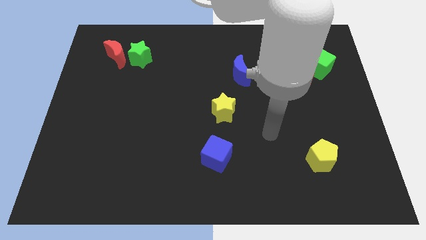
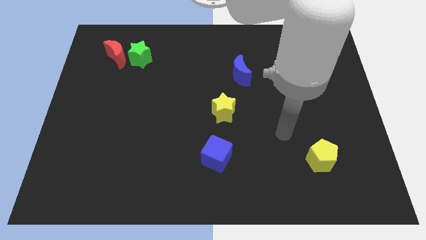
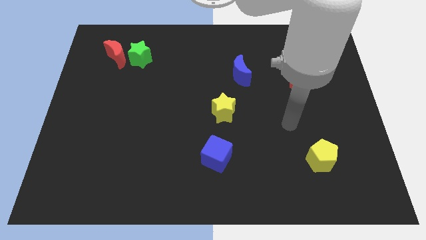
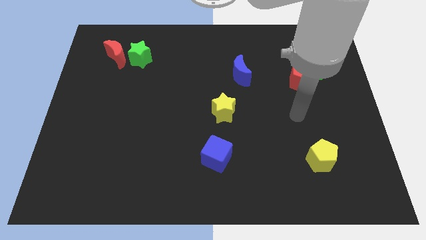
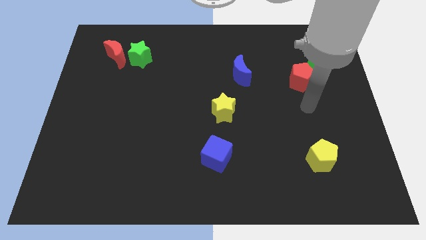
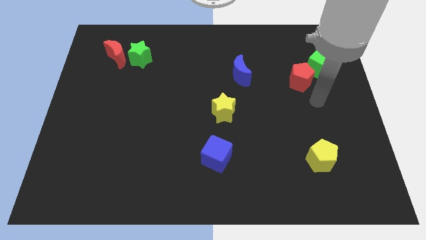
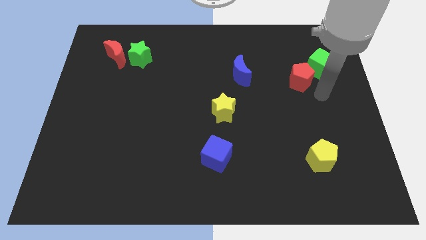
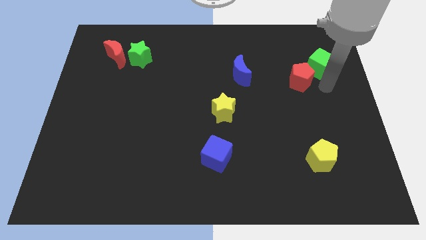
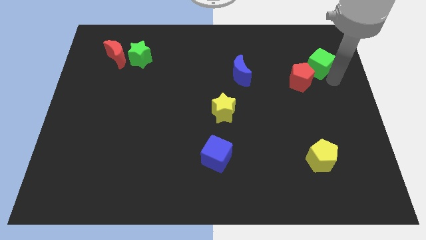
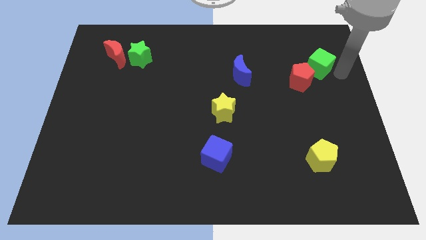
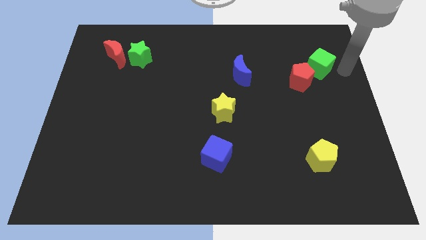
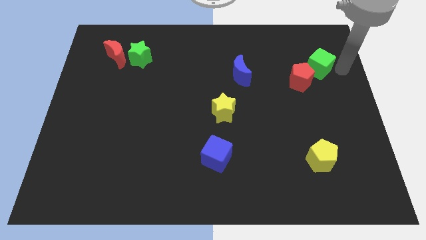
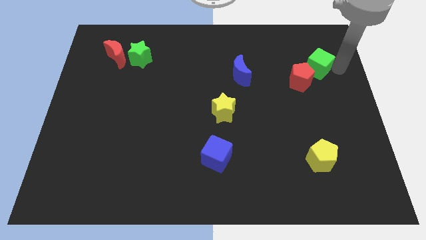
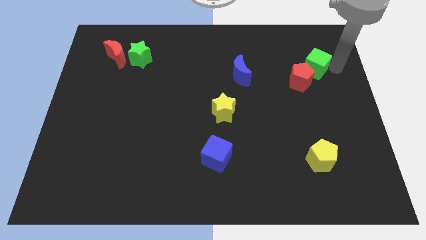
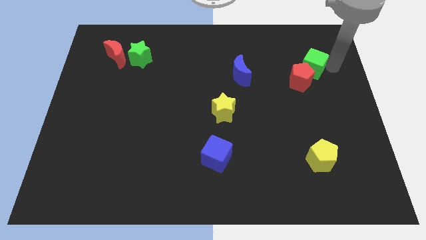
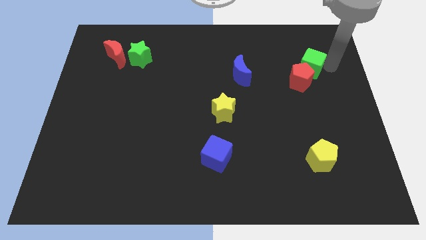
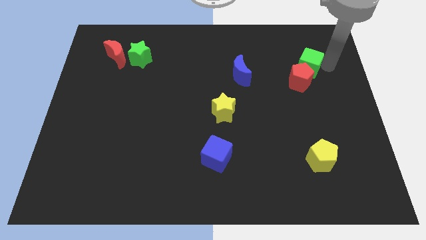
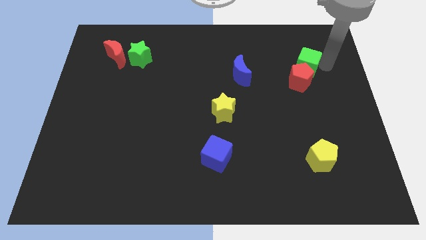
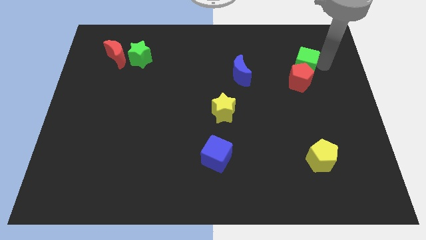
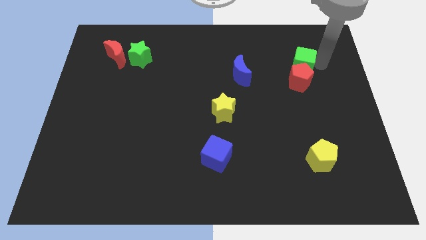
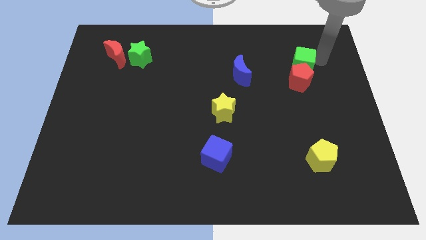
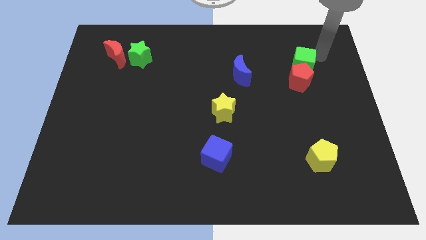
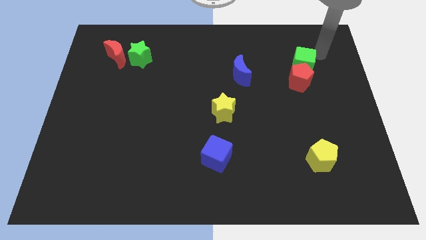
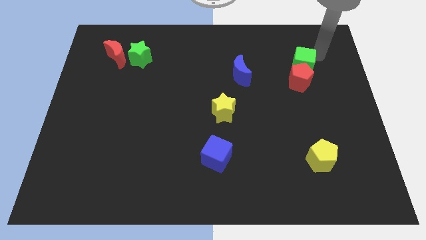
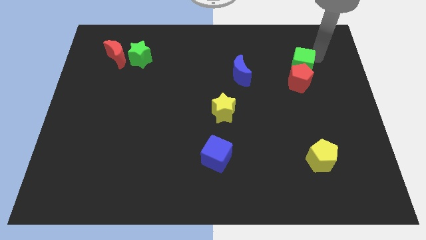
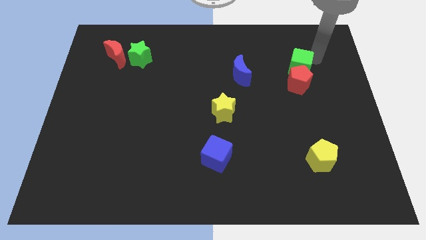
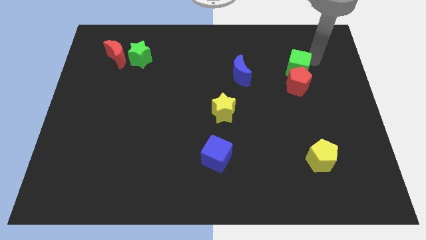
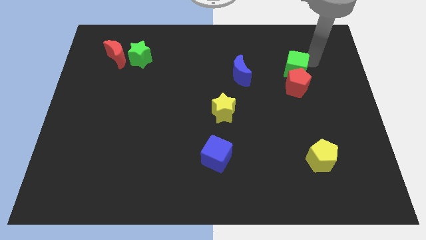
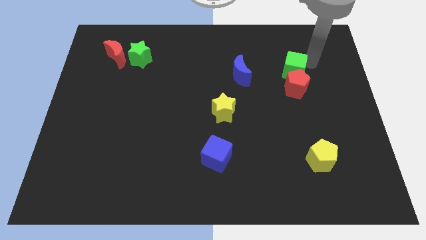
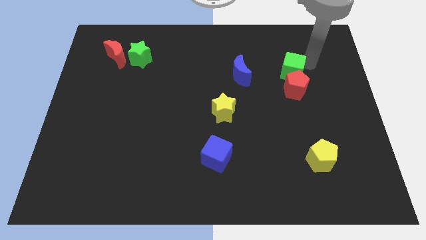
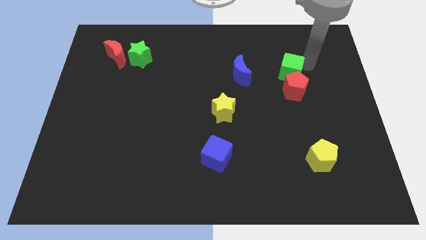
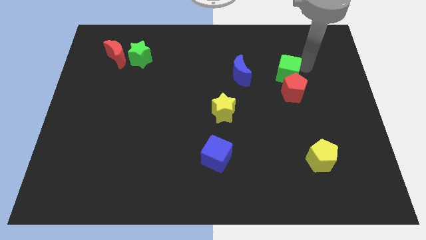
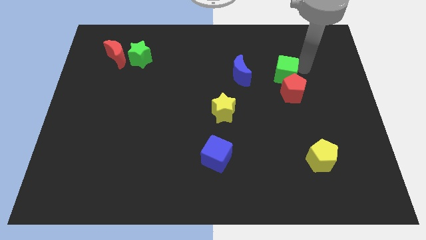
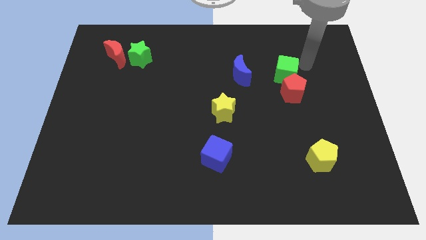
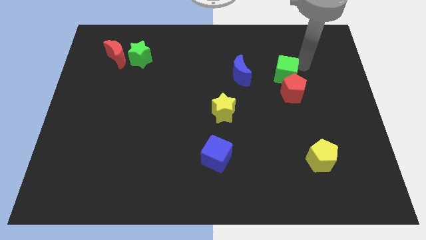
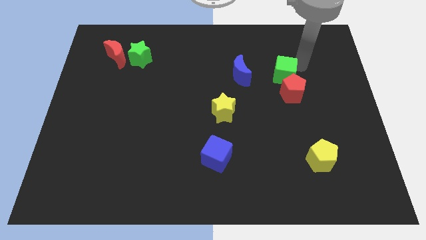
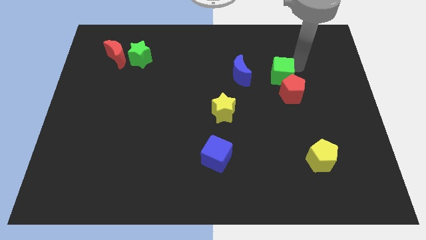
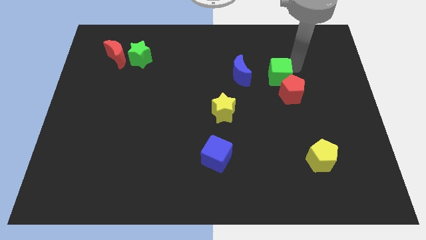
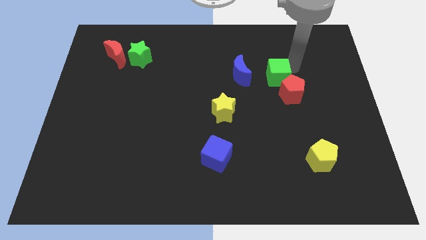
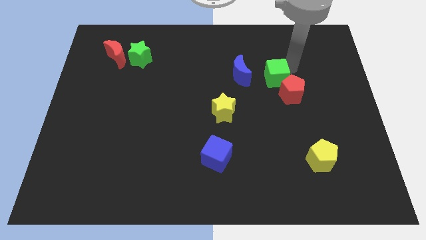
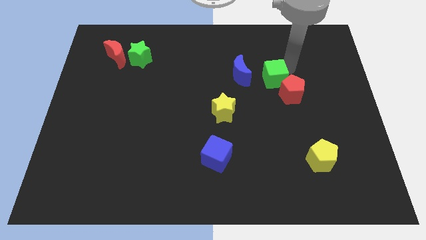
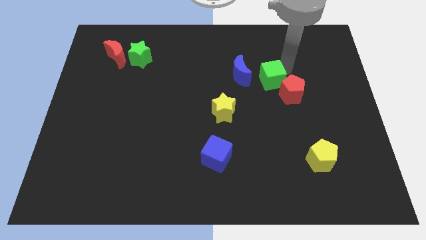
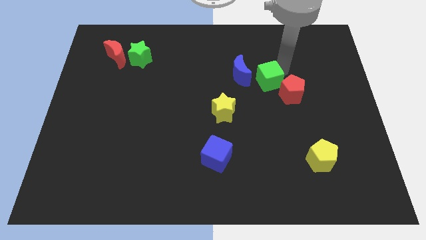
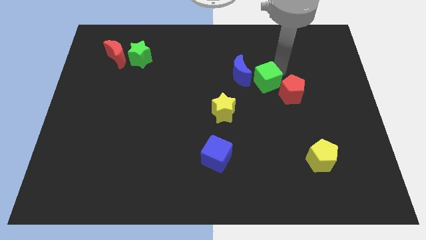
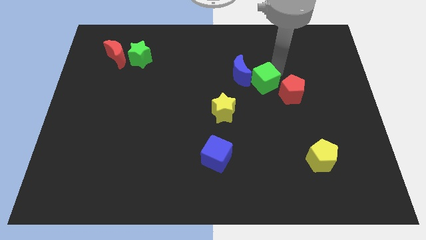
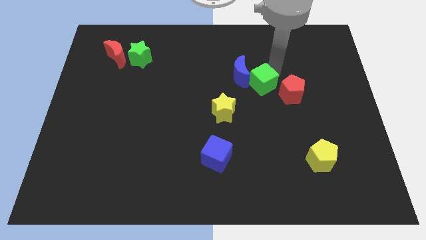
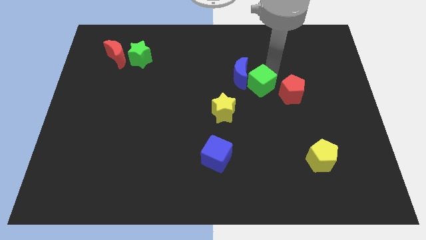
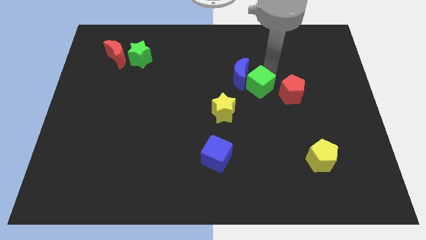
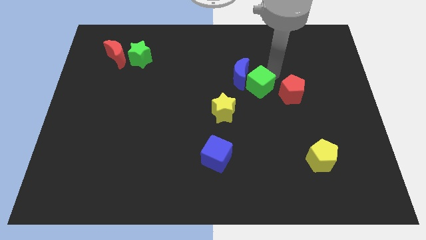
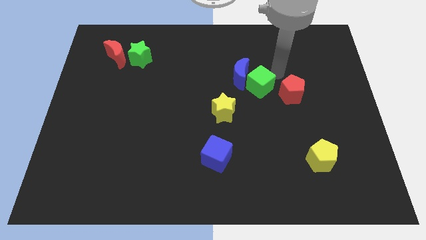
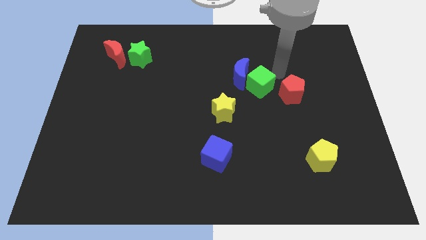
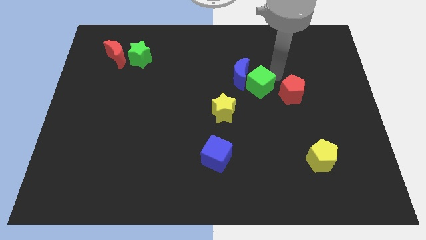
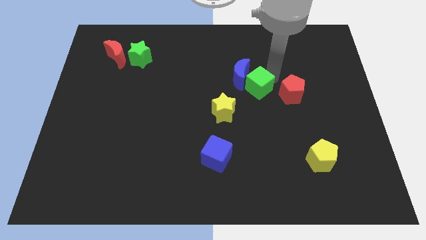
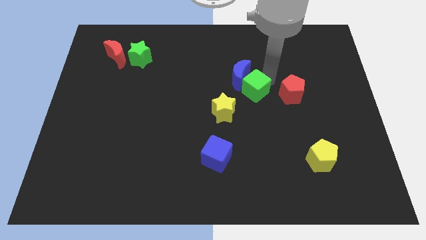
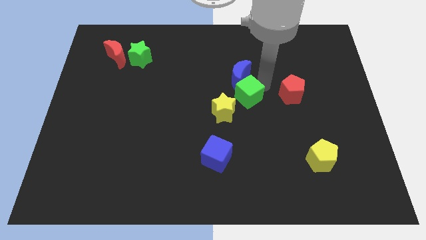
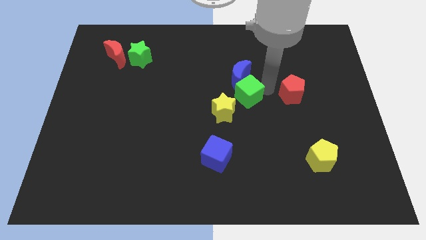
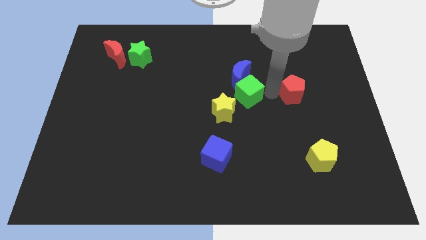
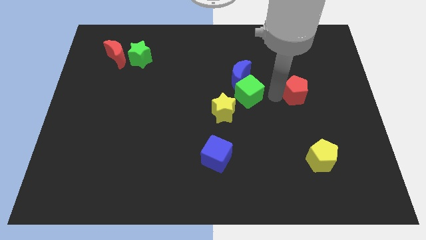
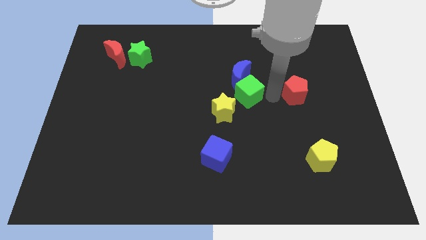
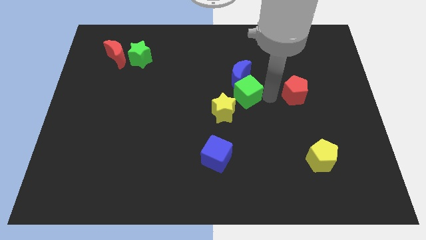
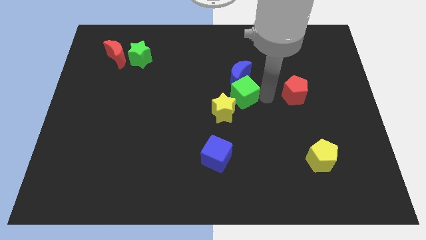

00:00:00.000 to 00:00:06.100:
move the green cube to the bottom left side of the blue moon

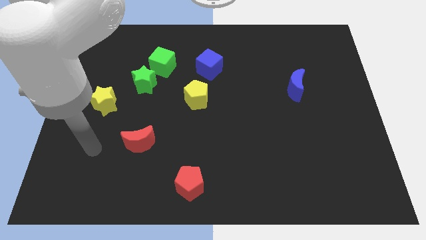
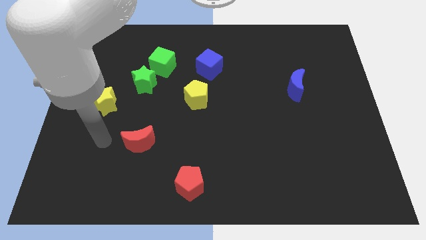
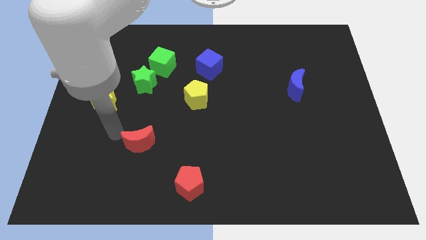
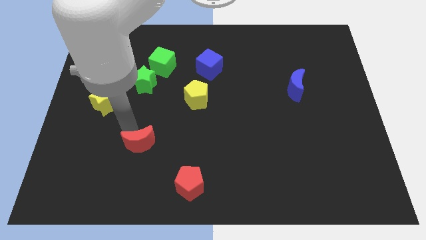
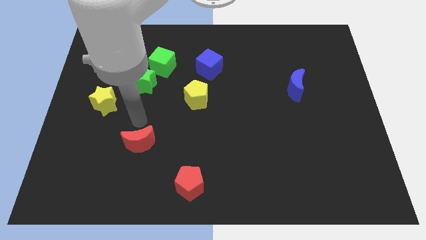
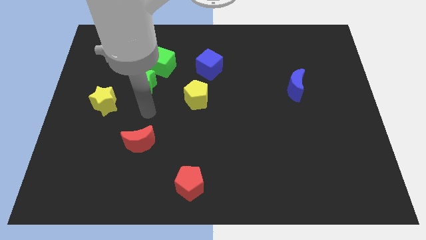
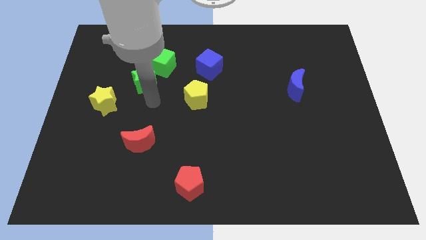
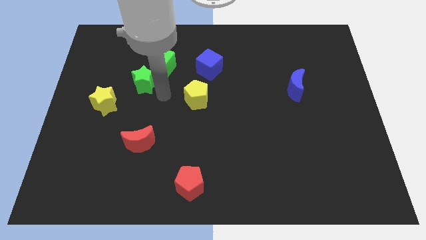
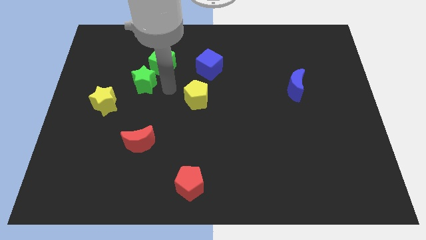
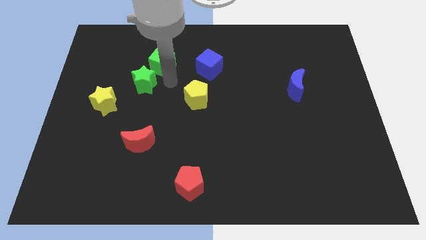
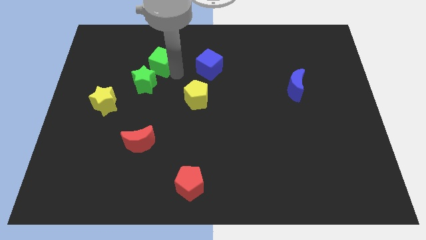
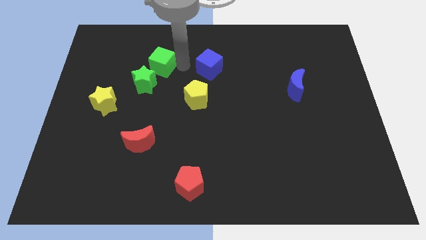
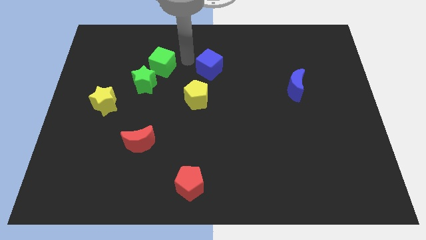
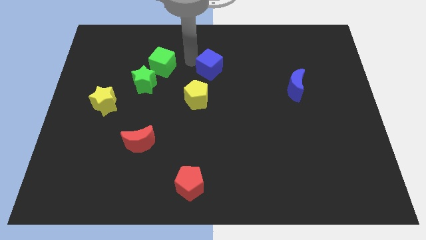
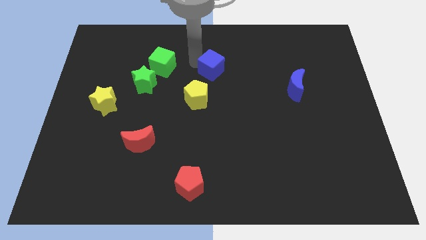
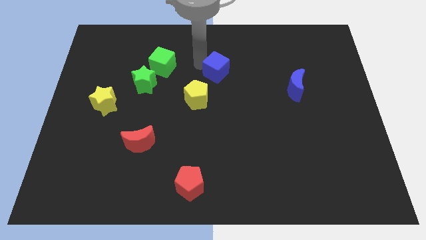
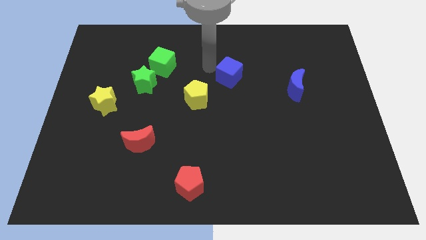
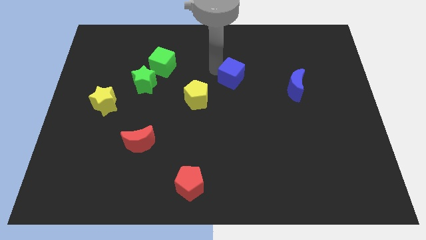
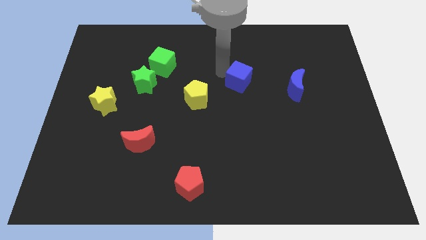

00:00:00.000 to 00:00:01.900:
move the blue cube left of the blue moon
